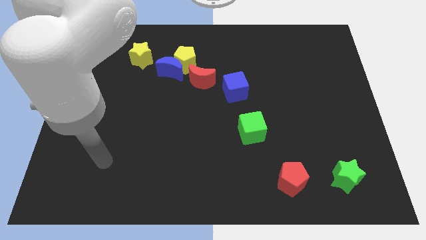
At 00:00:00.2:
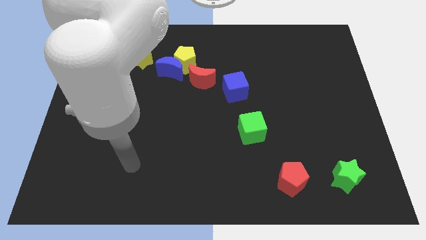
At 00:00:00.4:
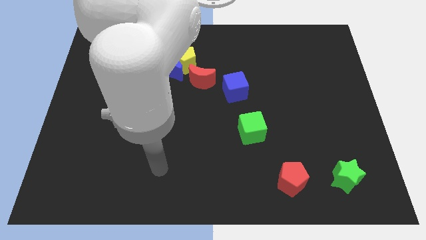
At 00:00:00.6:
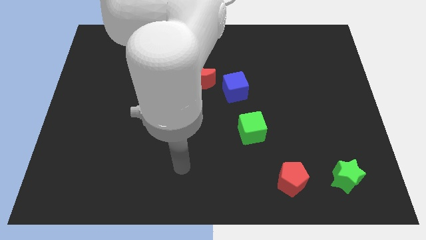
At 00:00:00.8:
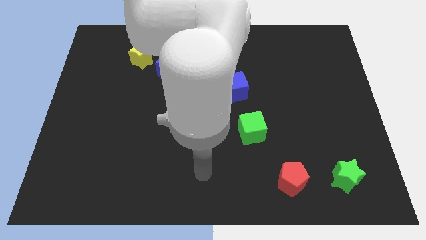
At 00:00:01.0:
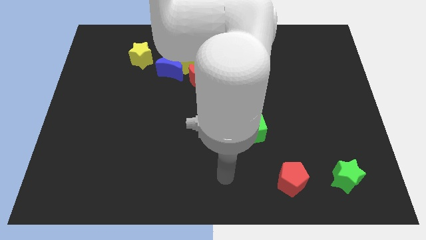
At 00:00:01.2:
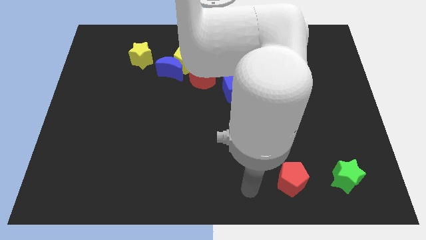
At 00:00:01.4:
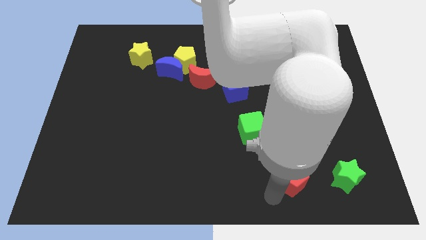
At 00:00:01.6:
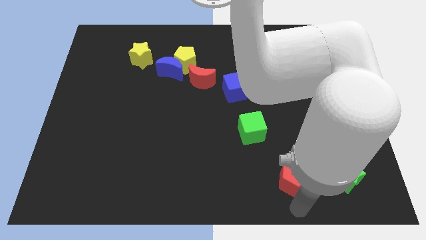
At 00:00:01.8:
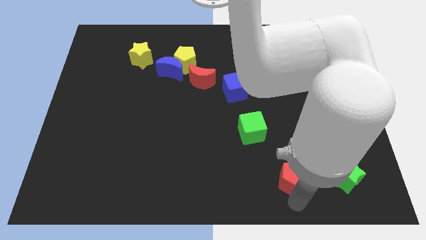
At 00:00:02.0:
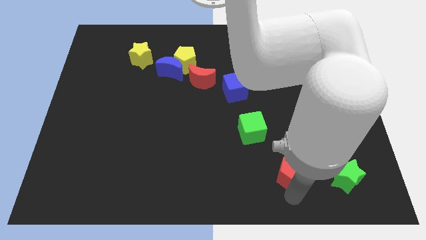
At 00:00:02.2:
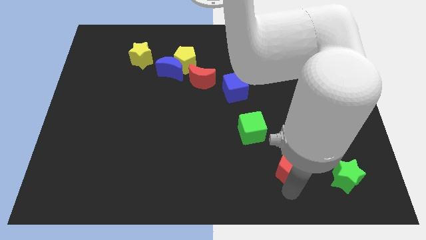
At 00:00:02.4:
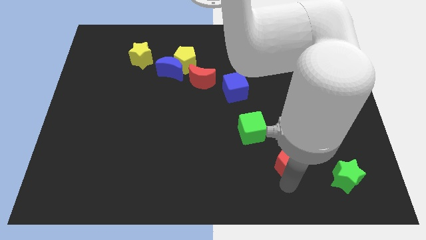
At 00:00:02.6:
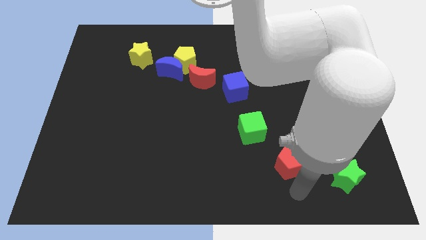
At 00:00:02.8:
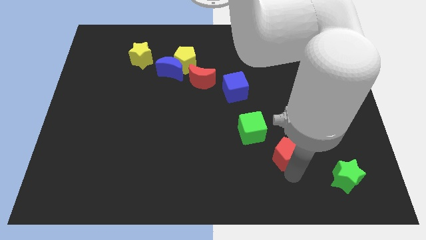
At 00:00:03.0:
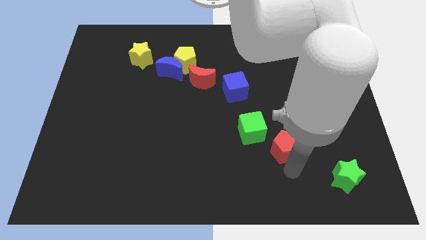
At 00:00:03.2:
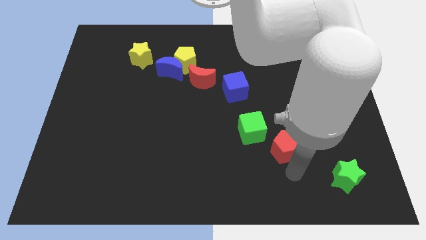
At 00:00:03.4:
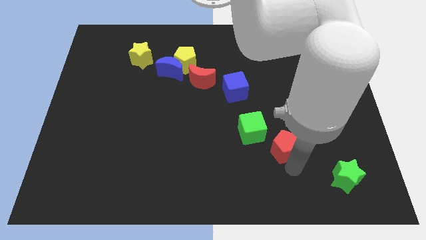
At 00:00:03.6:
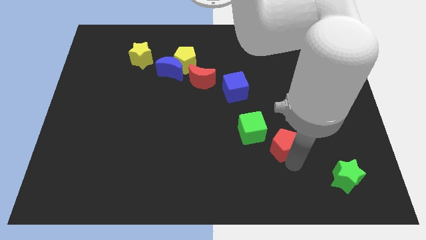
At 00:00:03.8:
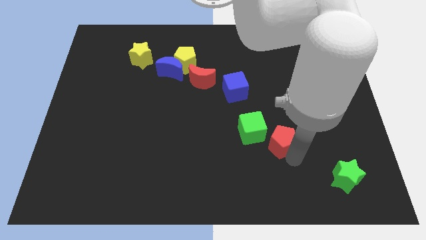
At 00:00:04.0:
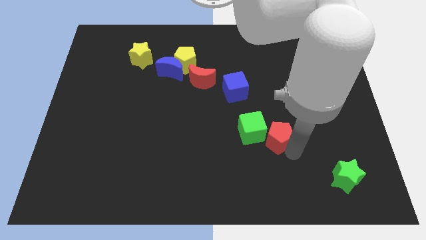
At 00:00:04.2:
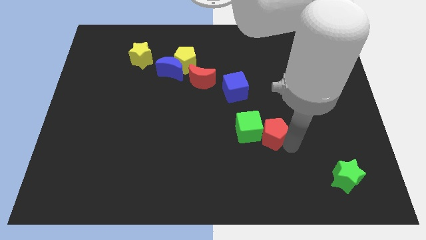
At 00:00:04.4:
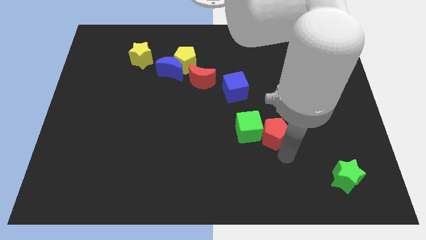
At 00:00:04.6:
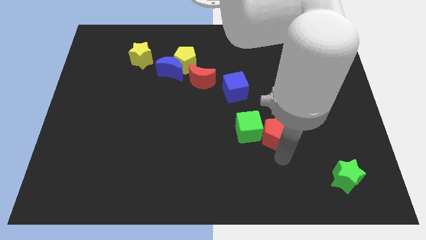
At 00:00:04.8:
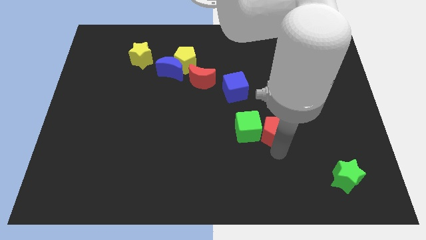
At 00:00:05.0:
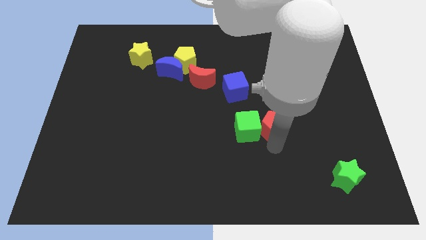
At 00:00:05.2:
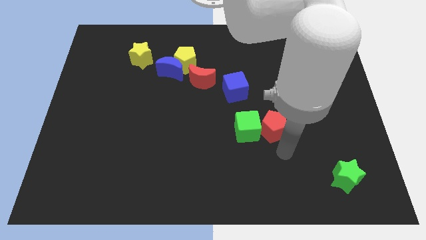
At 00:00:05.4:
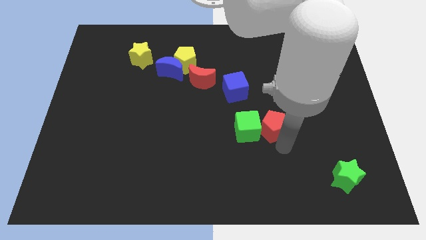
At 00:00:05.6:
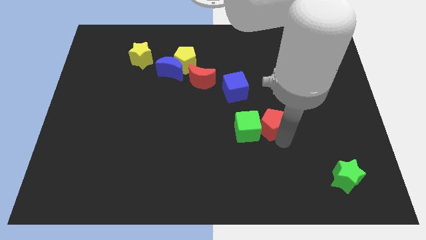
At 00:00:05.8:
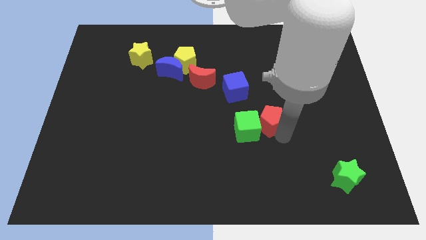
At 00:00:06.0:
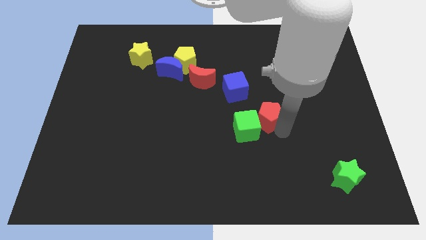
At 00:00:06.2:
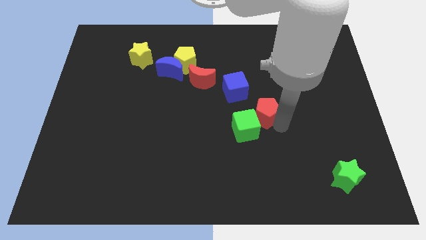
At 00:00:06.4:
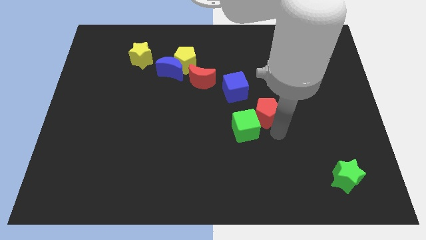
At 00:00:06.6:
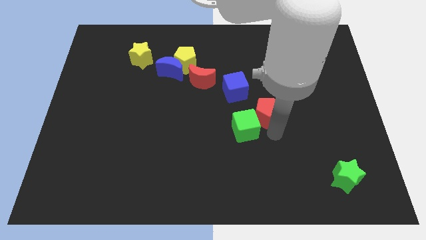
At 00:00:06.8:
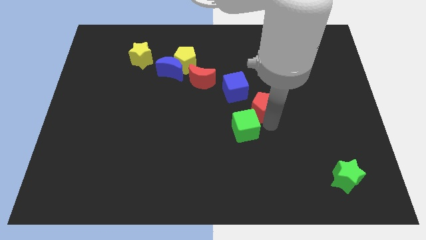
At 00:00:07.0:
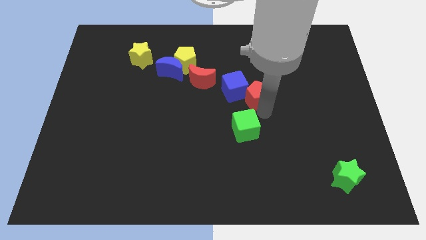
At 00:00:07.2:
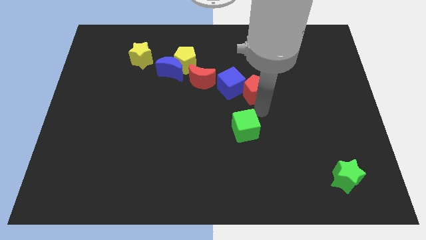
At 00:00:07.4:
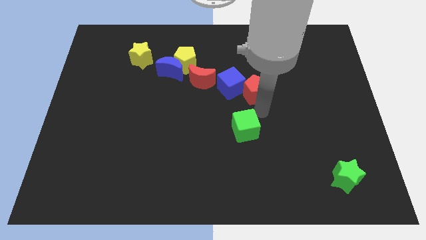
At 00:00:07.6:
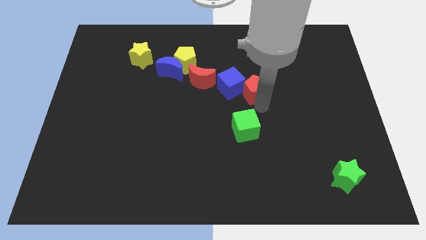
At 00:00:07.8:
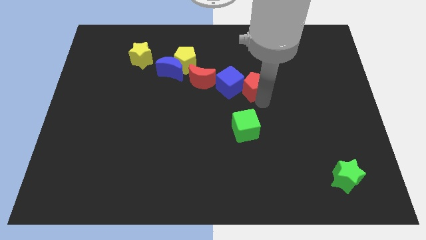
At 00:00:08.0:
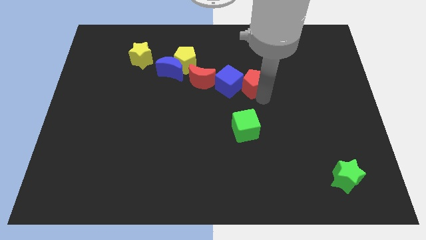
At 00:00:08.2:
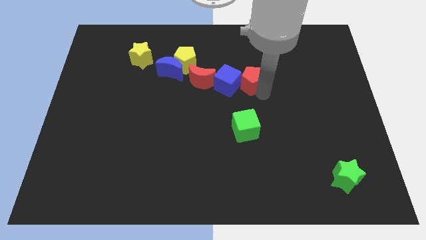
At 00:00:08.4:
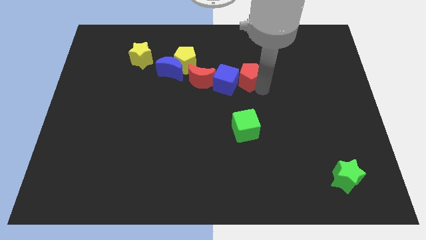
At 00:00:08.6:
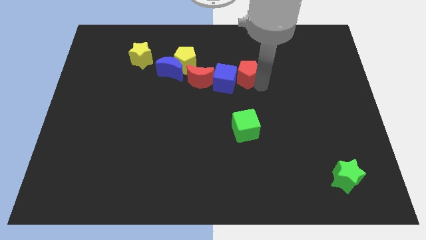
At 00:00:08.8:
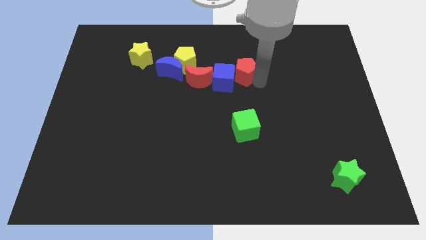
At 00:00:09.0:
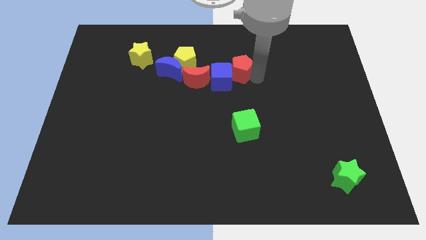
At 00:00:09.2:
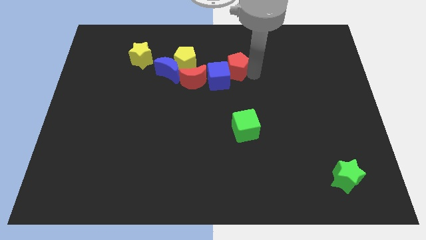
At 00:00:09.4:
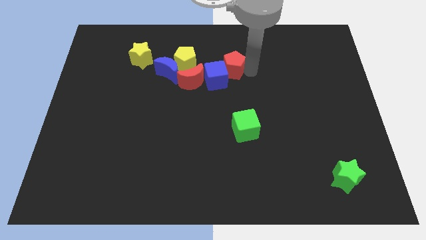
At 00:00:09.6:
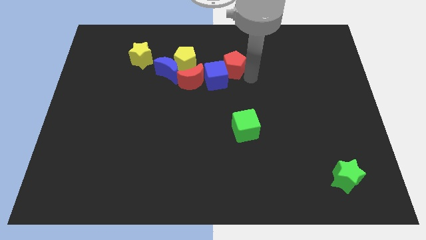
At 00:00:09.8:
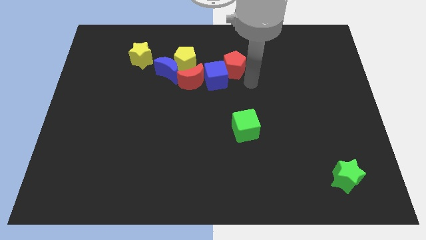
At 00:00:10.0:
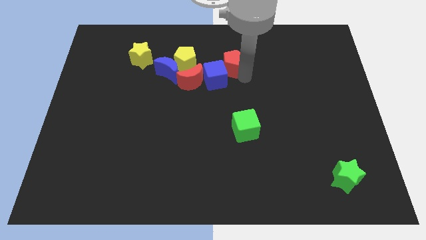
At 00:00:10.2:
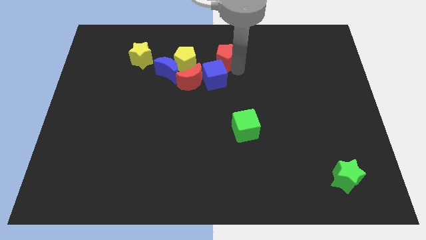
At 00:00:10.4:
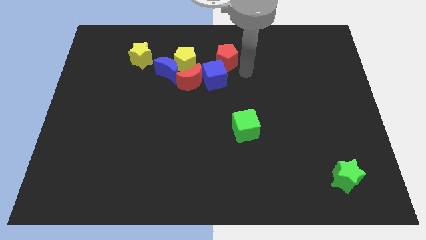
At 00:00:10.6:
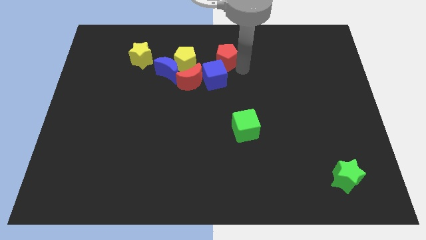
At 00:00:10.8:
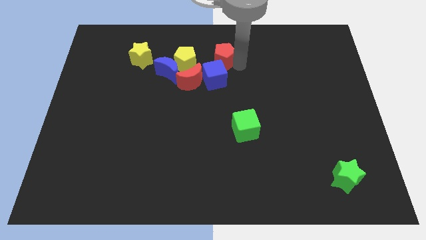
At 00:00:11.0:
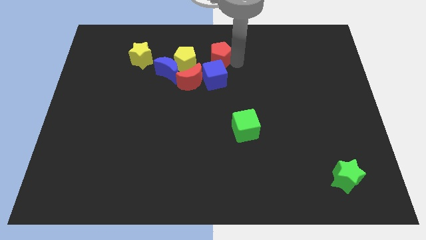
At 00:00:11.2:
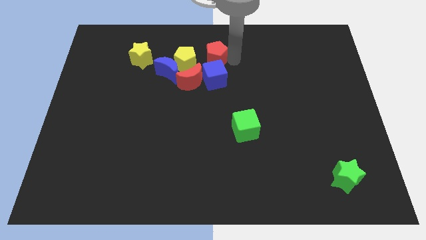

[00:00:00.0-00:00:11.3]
put the red pentagon to the top side
